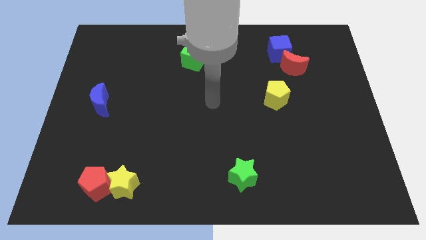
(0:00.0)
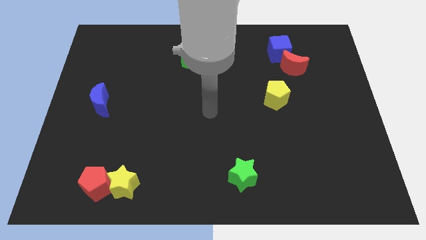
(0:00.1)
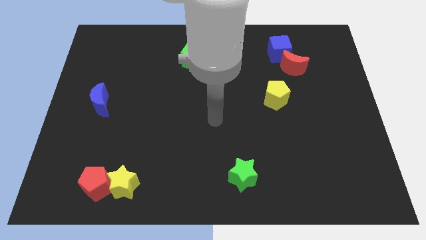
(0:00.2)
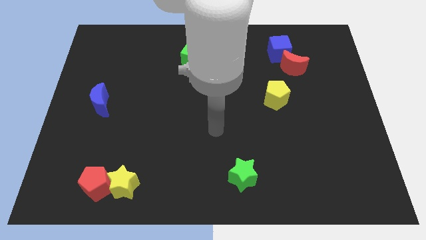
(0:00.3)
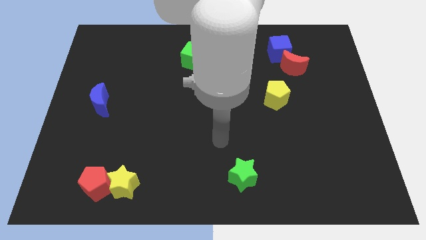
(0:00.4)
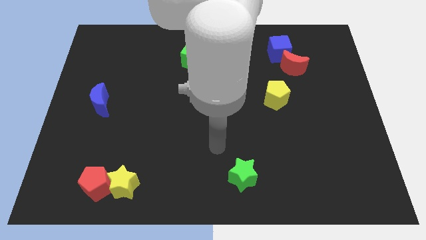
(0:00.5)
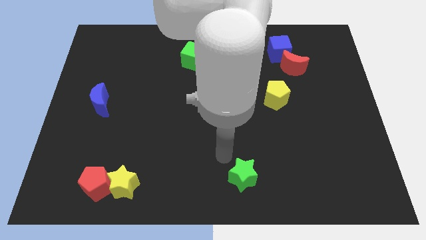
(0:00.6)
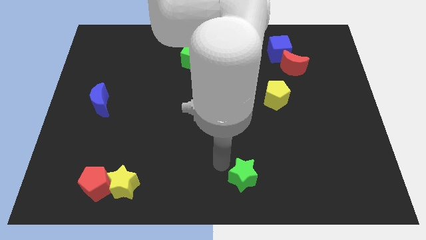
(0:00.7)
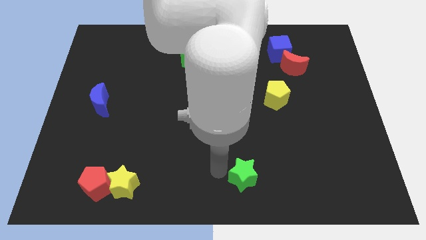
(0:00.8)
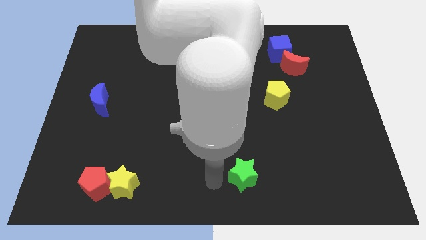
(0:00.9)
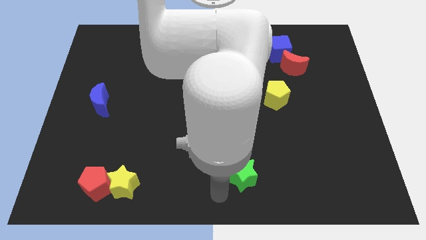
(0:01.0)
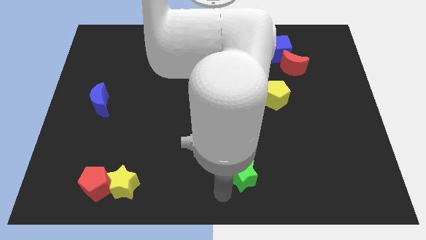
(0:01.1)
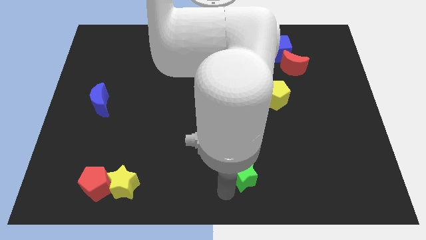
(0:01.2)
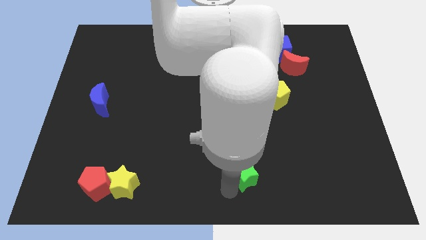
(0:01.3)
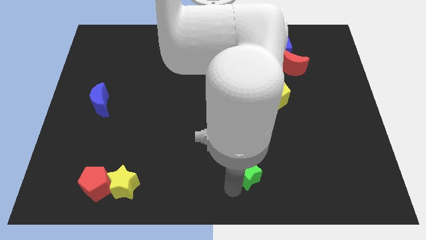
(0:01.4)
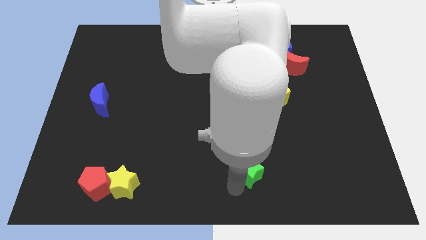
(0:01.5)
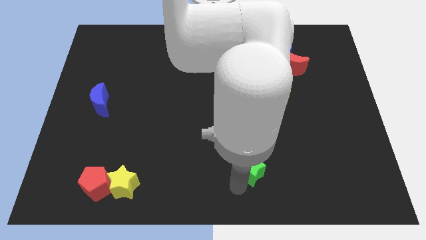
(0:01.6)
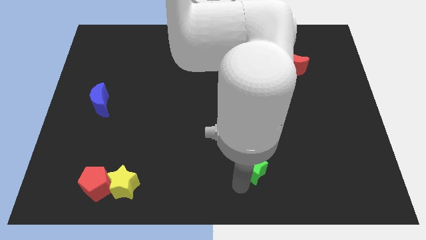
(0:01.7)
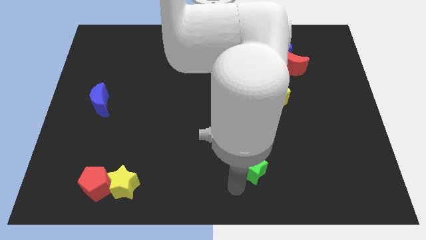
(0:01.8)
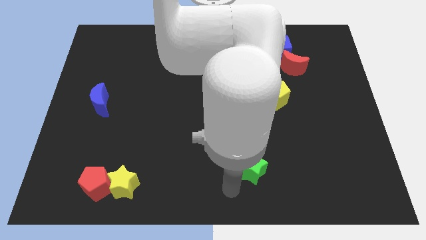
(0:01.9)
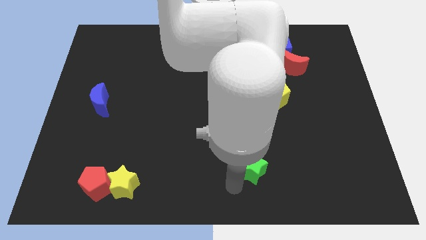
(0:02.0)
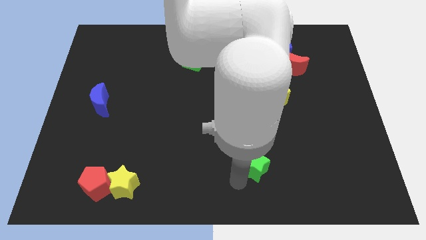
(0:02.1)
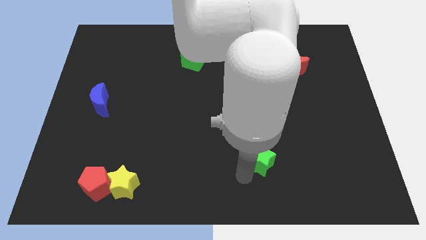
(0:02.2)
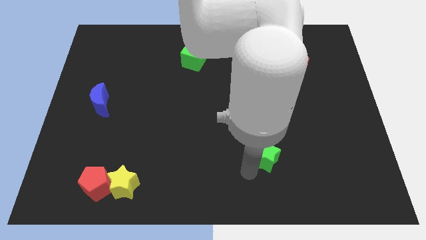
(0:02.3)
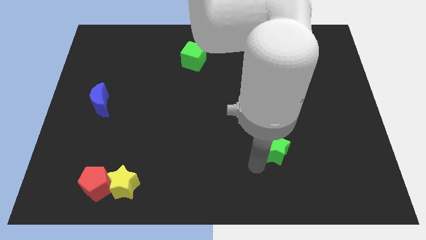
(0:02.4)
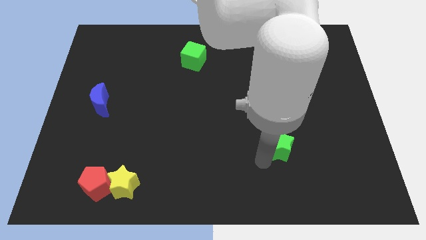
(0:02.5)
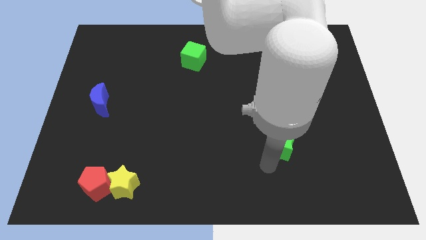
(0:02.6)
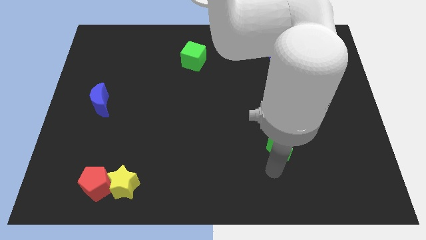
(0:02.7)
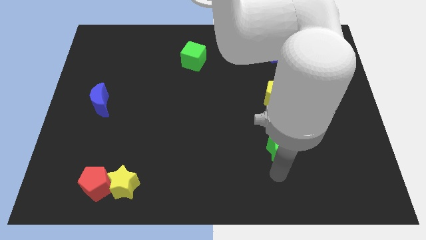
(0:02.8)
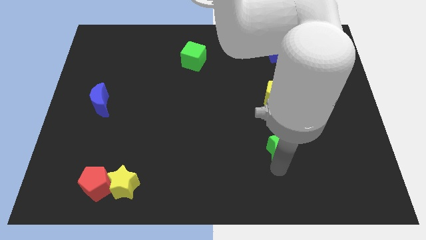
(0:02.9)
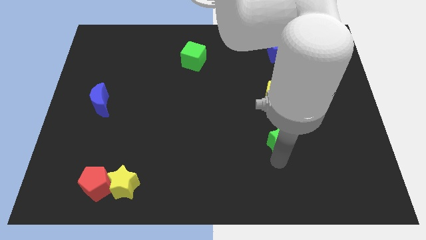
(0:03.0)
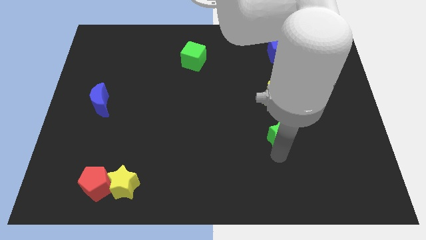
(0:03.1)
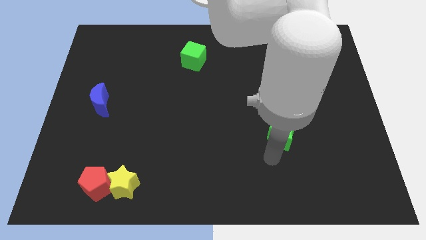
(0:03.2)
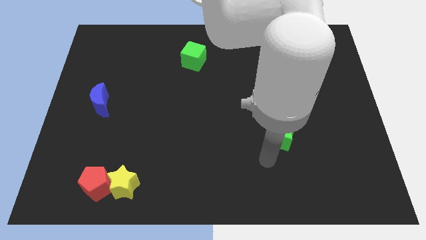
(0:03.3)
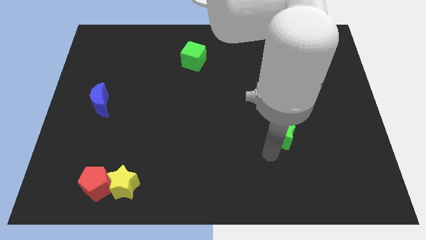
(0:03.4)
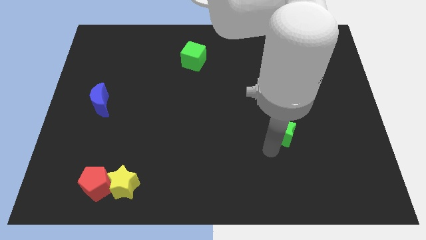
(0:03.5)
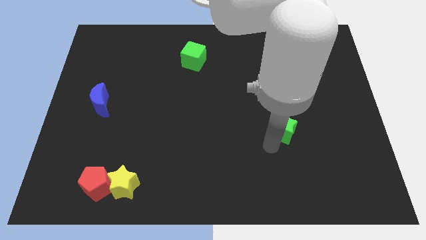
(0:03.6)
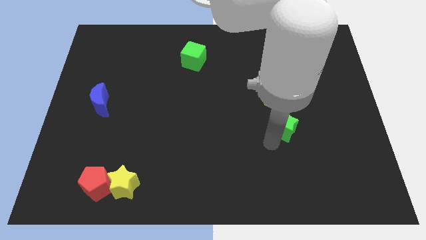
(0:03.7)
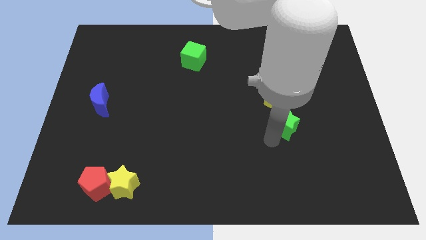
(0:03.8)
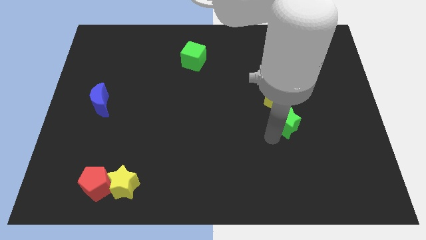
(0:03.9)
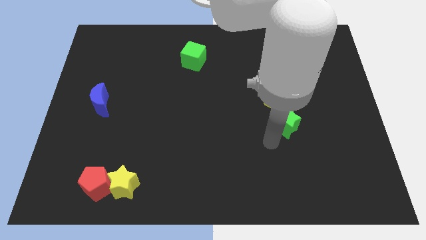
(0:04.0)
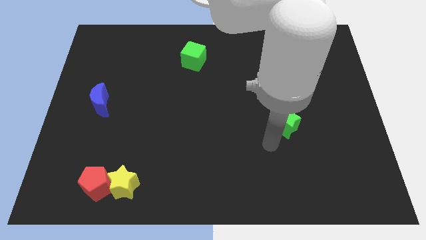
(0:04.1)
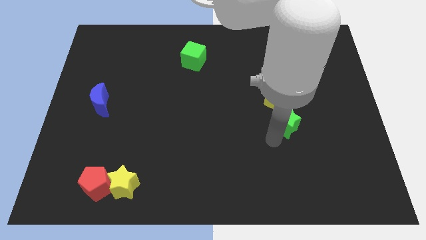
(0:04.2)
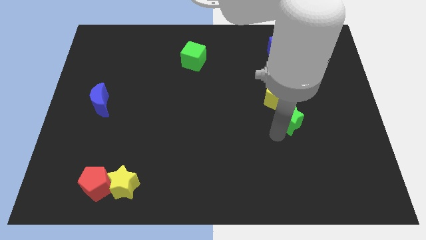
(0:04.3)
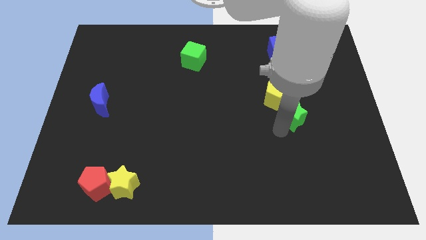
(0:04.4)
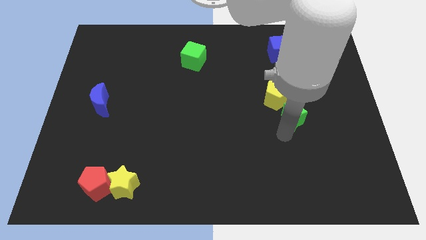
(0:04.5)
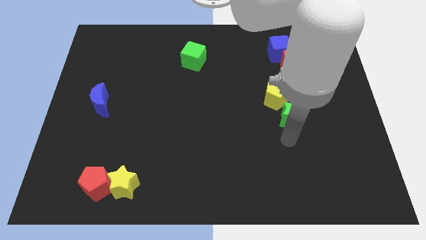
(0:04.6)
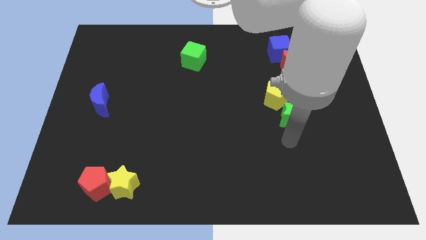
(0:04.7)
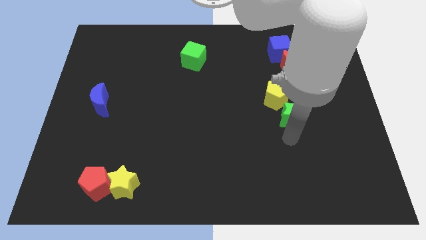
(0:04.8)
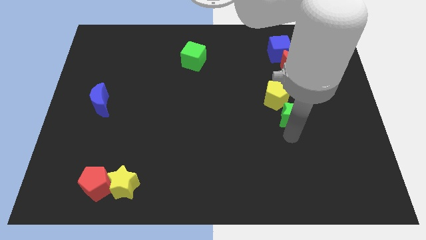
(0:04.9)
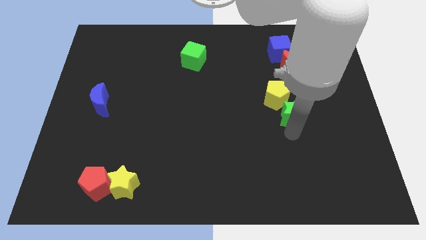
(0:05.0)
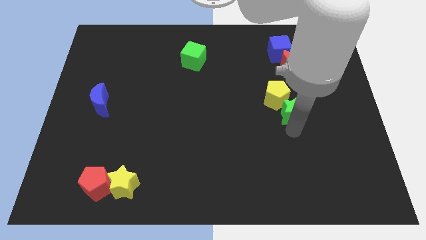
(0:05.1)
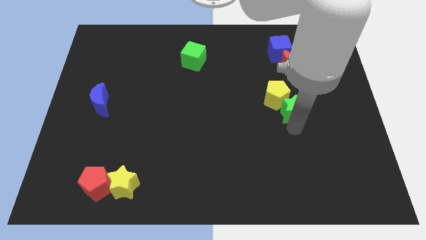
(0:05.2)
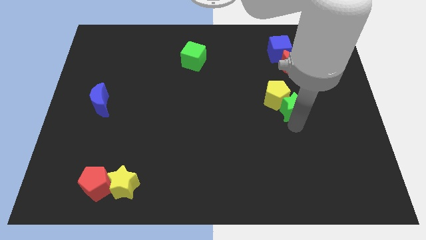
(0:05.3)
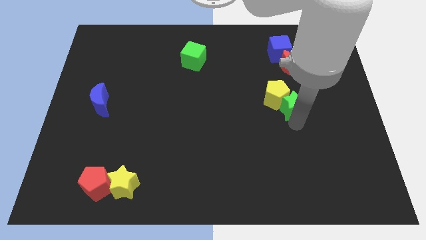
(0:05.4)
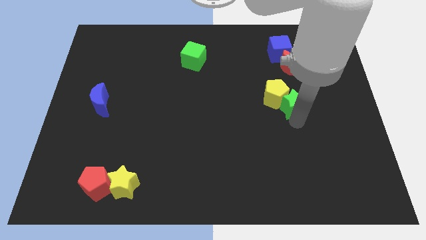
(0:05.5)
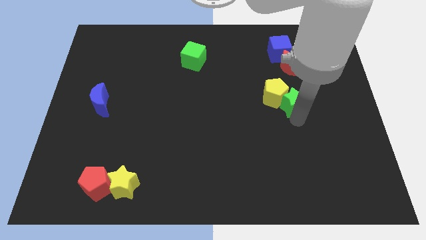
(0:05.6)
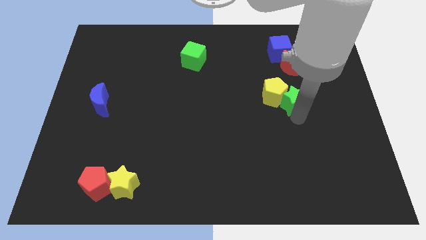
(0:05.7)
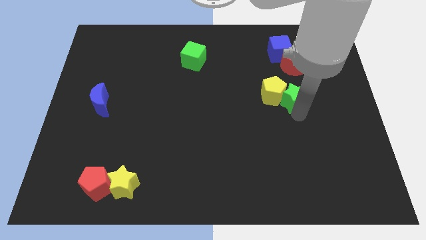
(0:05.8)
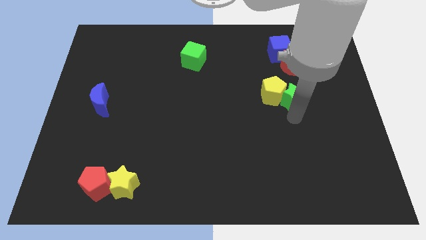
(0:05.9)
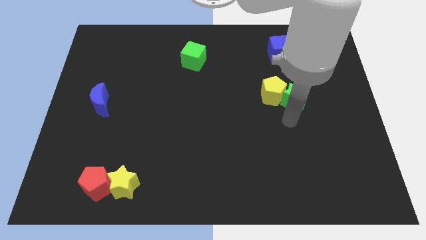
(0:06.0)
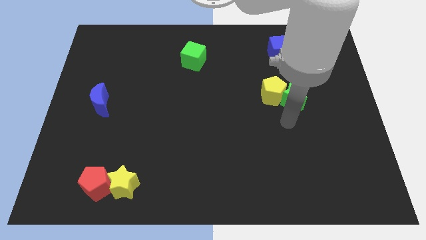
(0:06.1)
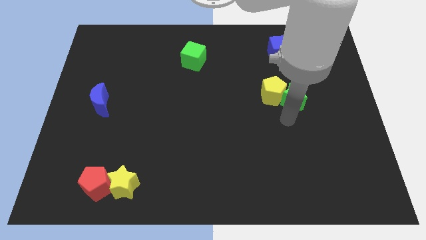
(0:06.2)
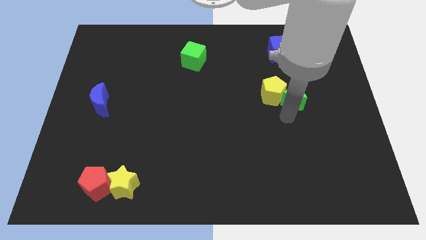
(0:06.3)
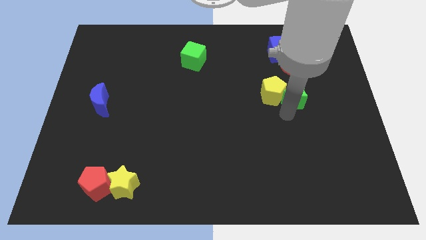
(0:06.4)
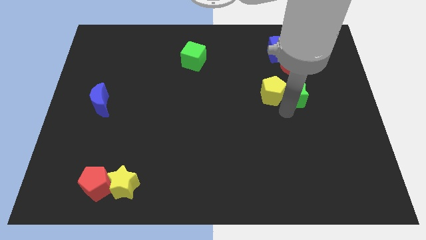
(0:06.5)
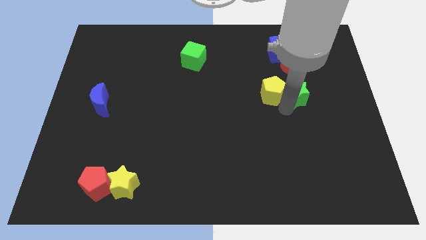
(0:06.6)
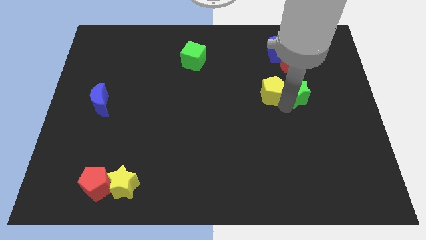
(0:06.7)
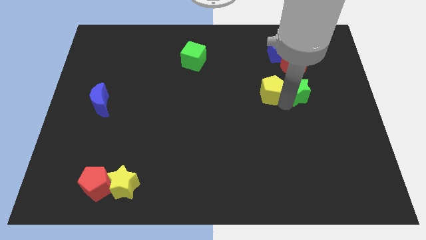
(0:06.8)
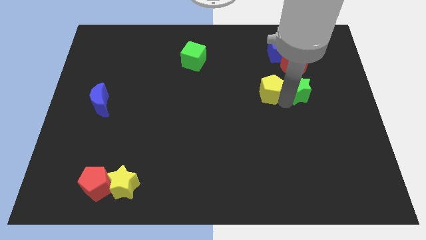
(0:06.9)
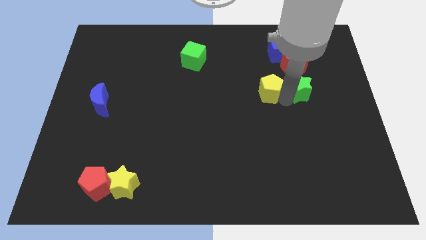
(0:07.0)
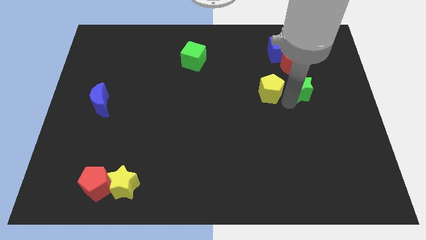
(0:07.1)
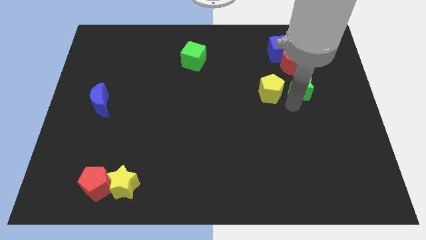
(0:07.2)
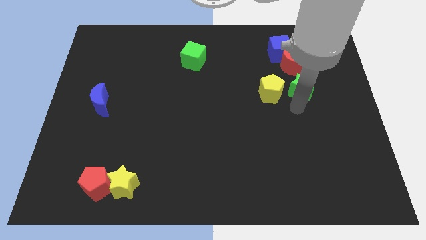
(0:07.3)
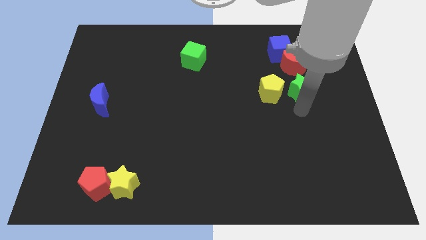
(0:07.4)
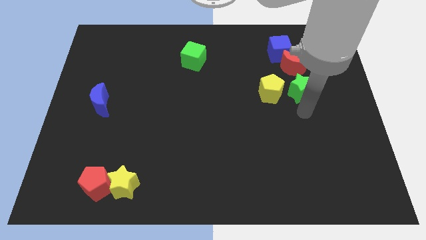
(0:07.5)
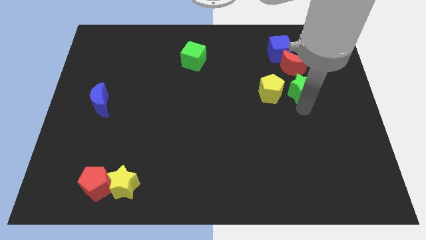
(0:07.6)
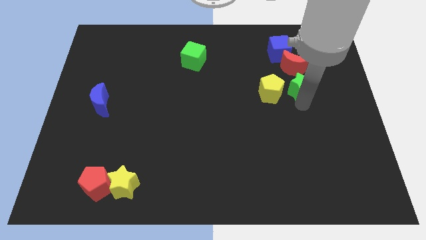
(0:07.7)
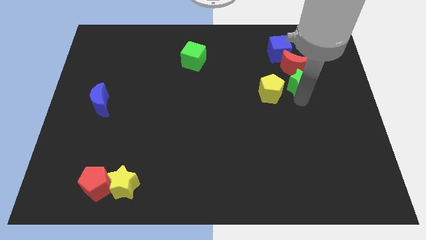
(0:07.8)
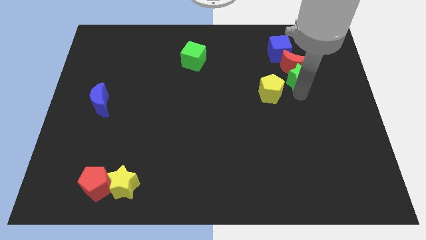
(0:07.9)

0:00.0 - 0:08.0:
move the green star towards the red moon
